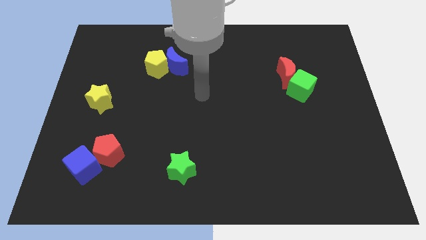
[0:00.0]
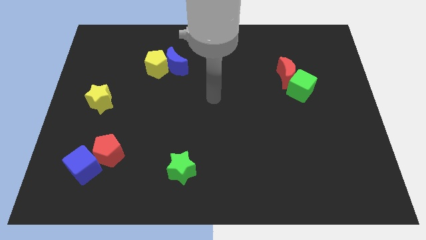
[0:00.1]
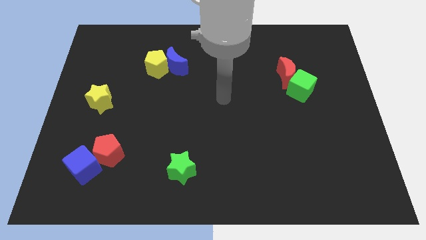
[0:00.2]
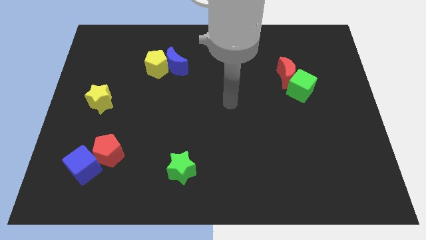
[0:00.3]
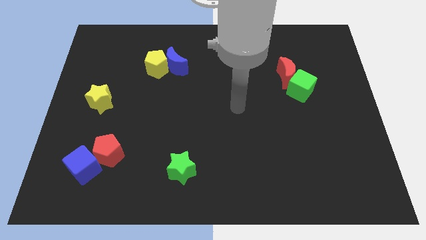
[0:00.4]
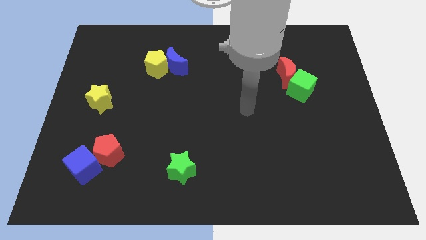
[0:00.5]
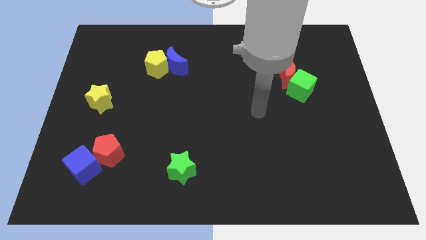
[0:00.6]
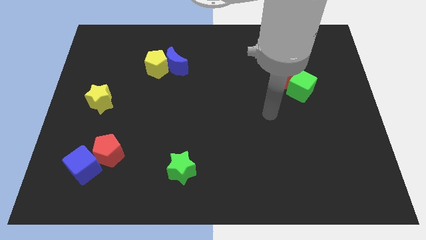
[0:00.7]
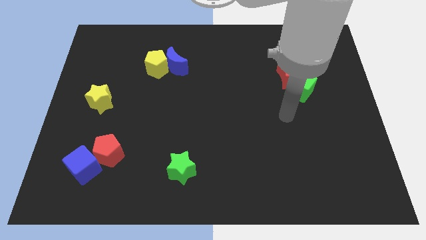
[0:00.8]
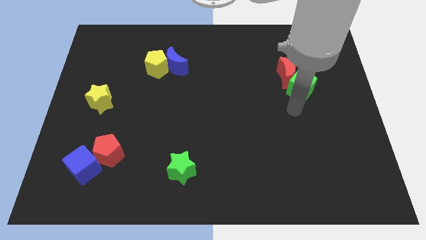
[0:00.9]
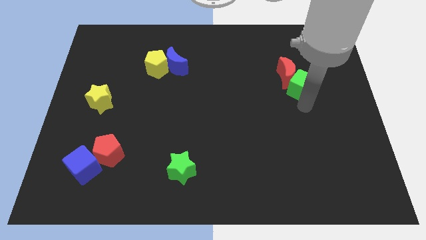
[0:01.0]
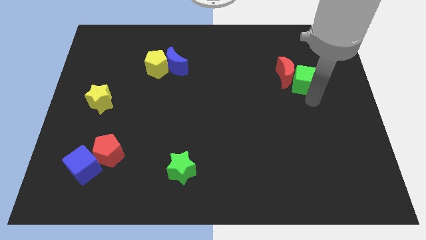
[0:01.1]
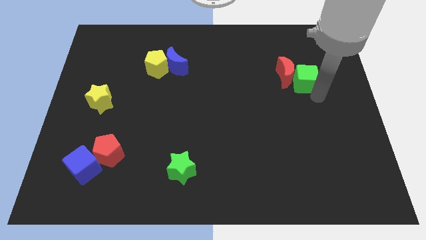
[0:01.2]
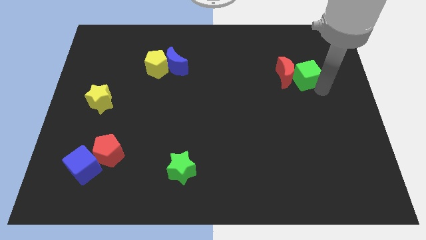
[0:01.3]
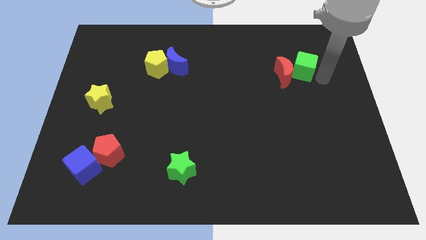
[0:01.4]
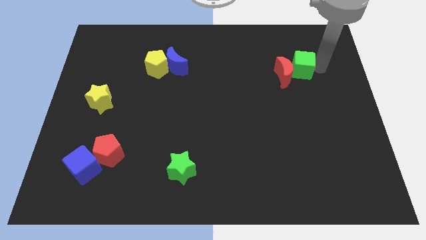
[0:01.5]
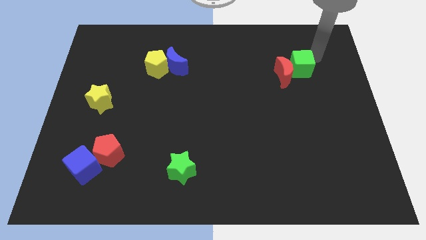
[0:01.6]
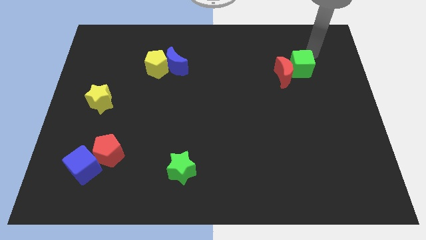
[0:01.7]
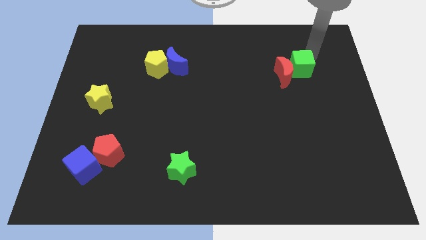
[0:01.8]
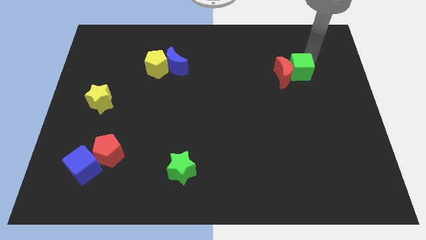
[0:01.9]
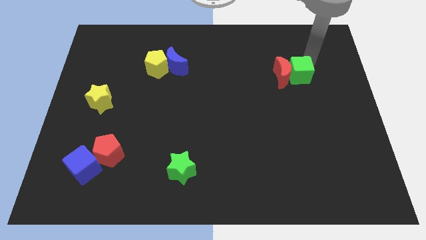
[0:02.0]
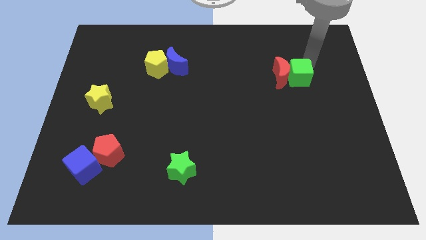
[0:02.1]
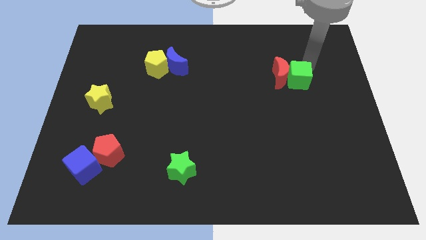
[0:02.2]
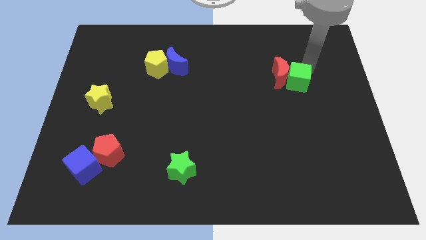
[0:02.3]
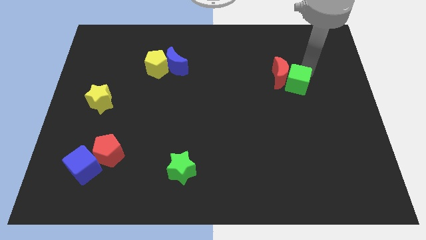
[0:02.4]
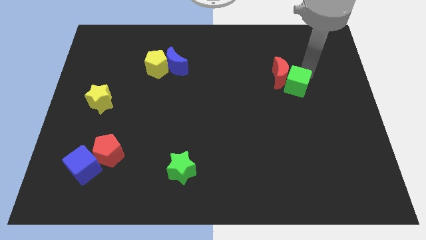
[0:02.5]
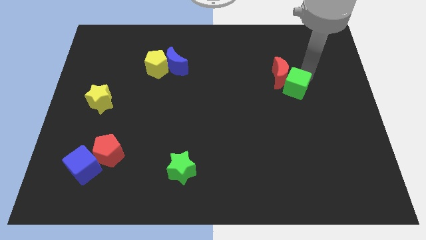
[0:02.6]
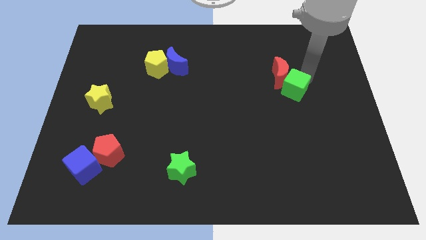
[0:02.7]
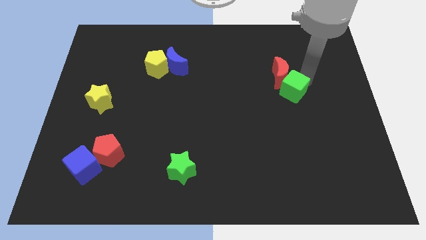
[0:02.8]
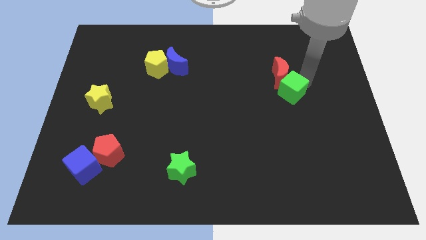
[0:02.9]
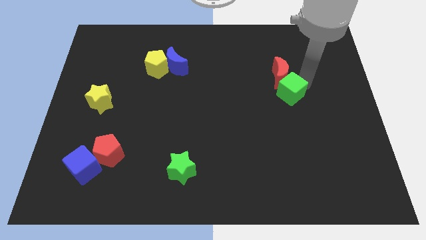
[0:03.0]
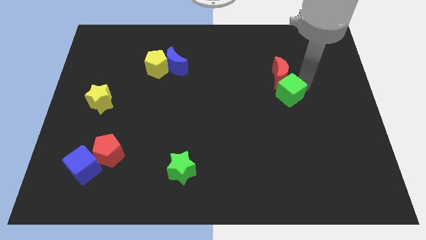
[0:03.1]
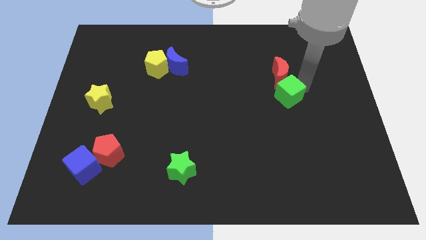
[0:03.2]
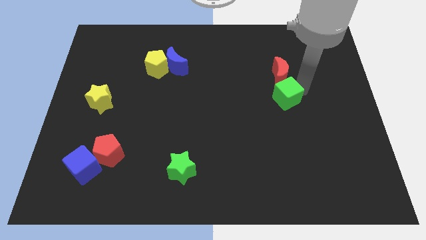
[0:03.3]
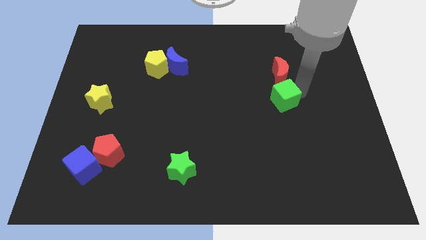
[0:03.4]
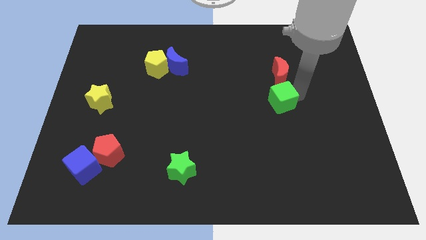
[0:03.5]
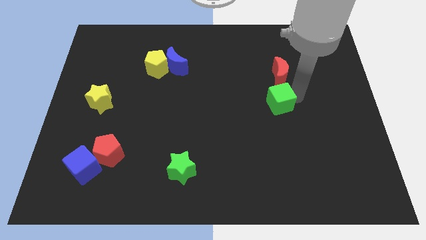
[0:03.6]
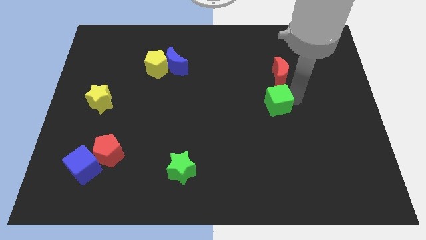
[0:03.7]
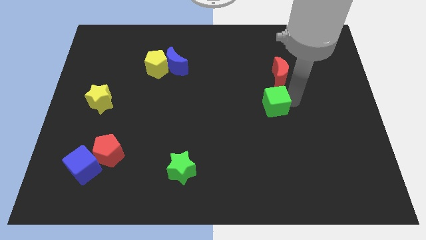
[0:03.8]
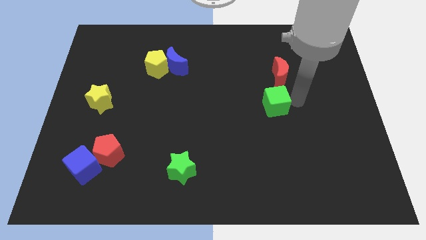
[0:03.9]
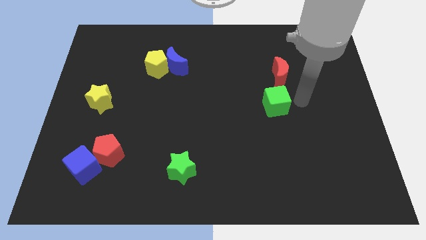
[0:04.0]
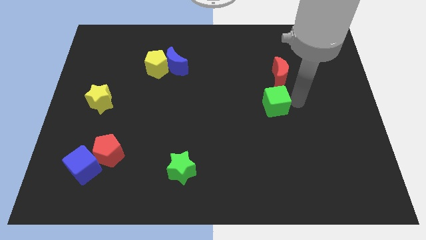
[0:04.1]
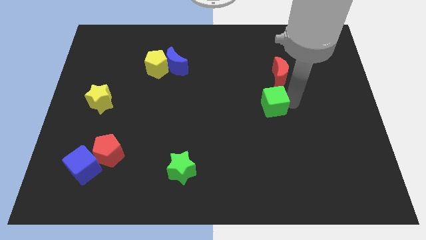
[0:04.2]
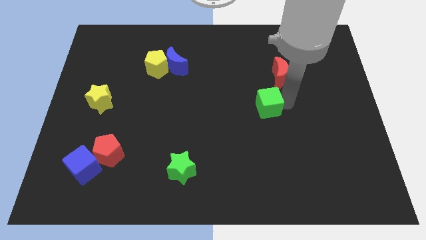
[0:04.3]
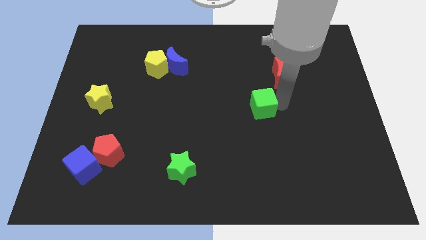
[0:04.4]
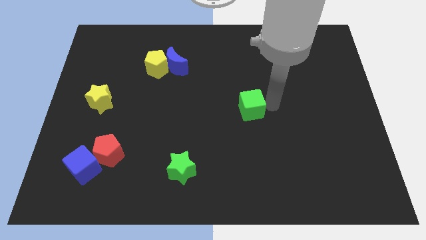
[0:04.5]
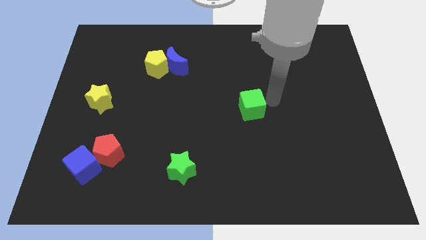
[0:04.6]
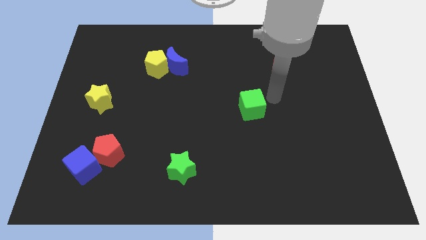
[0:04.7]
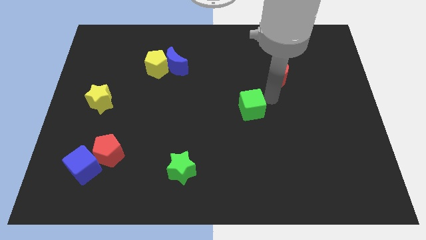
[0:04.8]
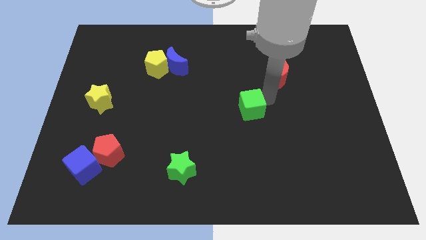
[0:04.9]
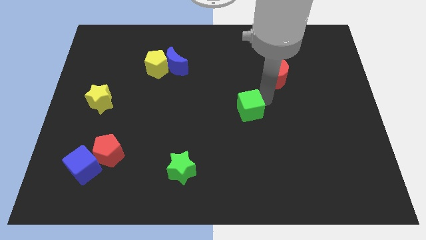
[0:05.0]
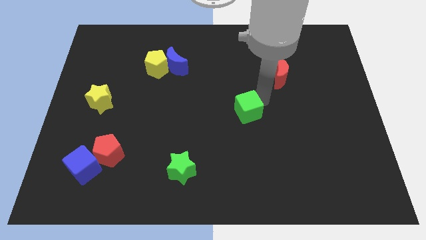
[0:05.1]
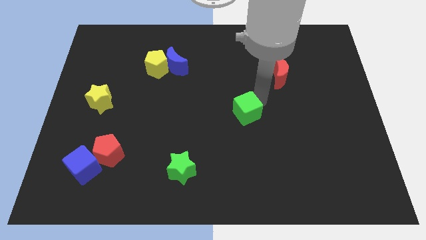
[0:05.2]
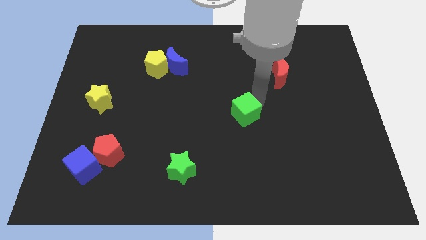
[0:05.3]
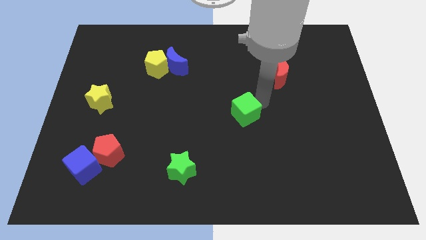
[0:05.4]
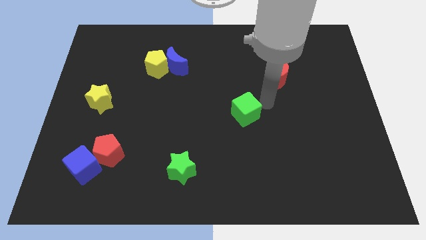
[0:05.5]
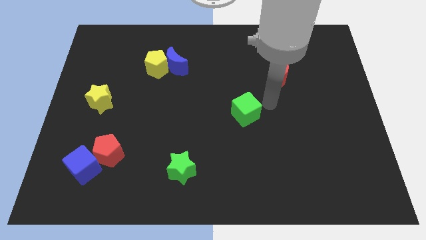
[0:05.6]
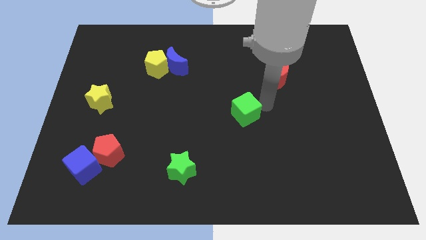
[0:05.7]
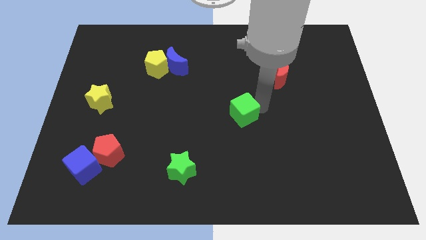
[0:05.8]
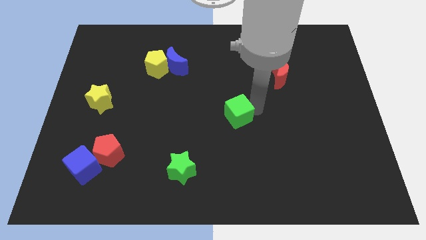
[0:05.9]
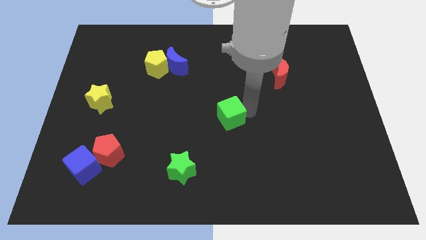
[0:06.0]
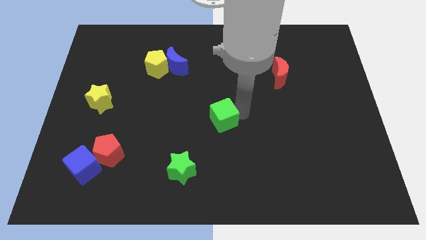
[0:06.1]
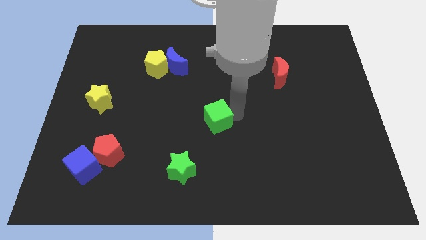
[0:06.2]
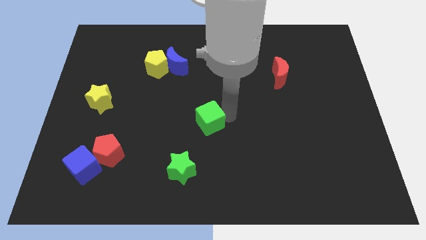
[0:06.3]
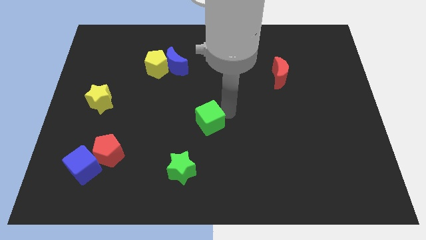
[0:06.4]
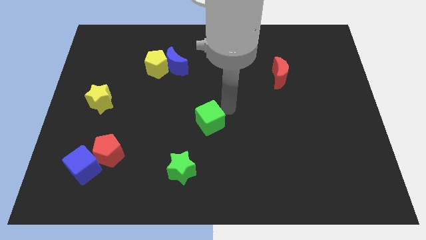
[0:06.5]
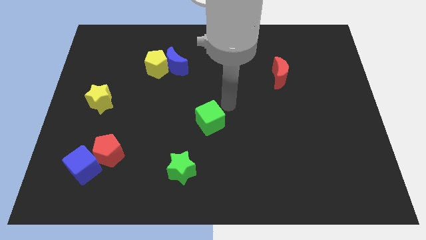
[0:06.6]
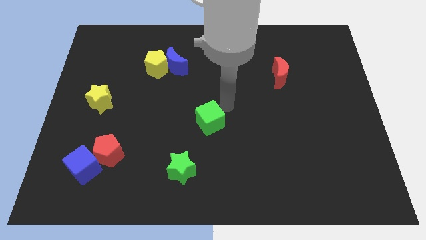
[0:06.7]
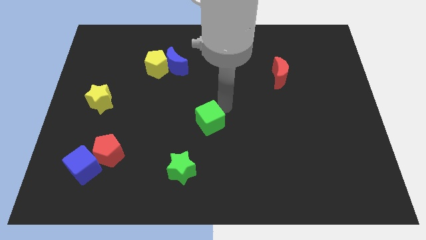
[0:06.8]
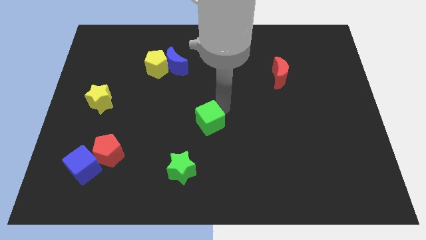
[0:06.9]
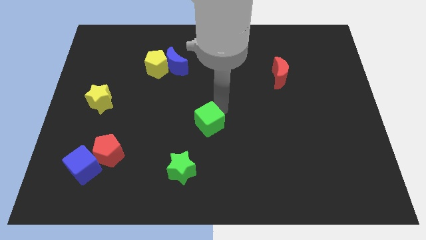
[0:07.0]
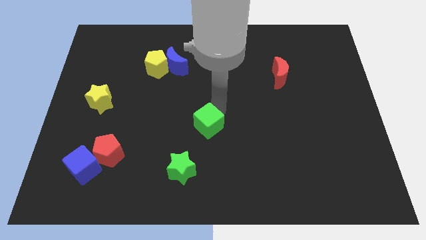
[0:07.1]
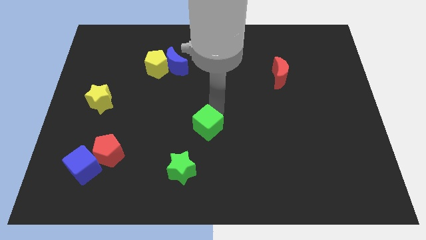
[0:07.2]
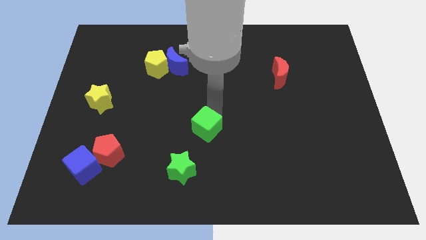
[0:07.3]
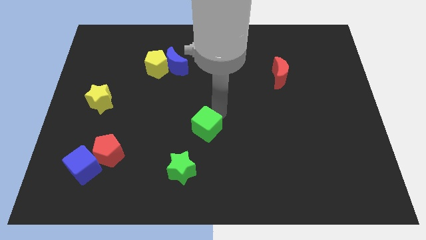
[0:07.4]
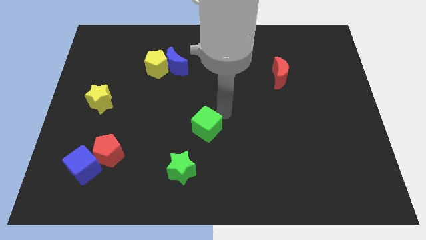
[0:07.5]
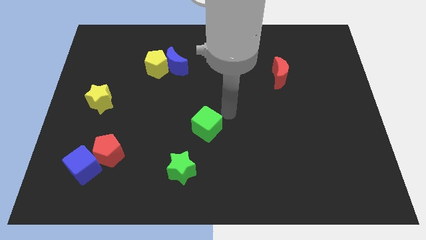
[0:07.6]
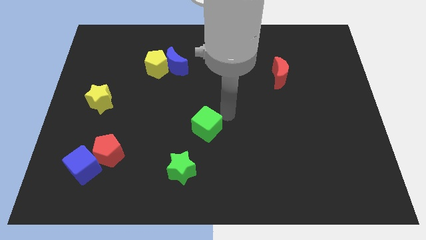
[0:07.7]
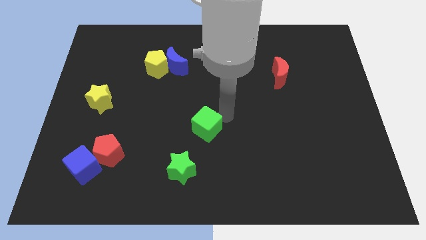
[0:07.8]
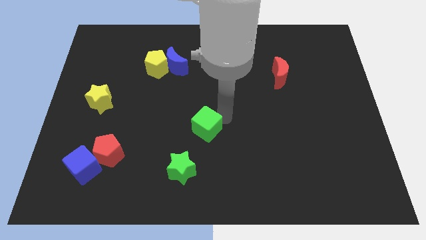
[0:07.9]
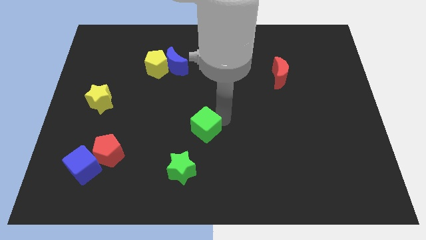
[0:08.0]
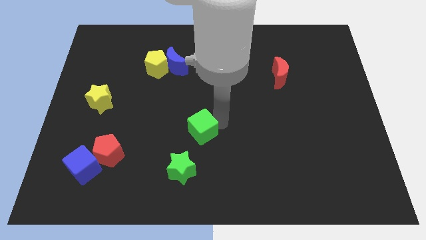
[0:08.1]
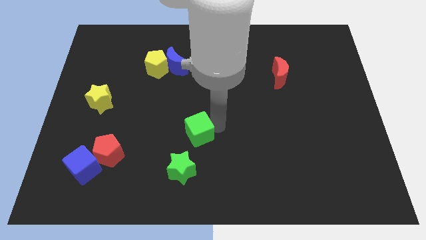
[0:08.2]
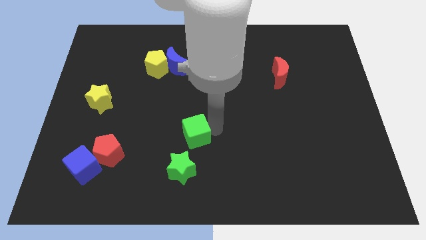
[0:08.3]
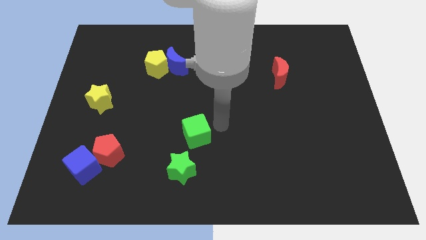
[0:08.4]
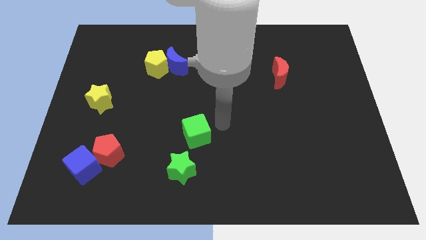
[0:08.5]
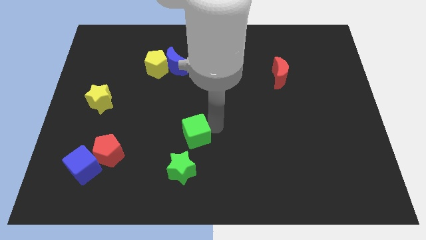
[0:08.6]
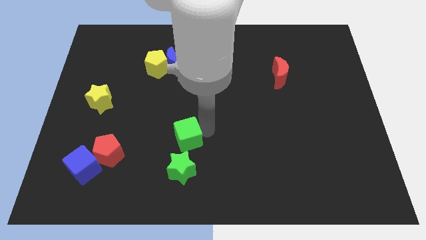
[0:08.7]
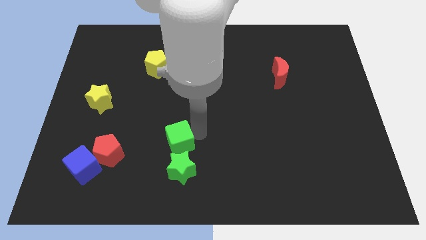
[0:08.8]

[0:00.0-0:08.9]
slide the green cube to the top left side of the green star
